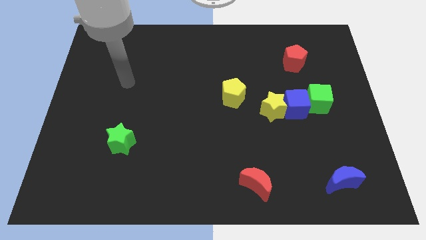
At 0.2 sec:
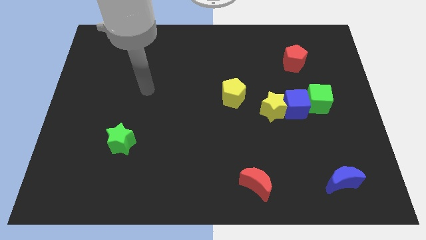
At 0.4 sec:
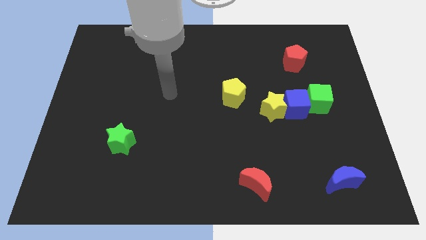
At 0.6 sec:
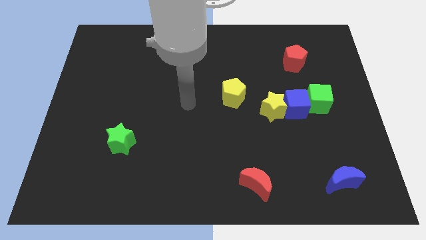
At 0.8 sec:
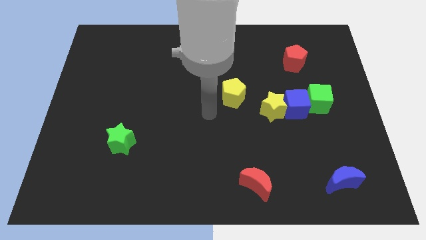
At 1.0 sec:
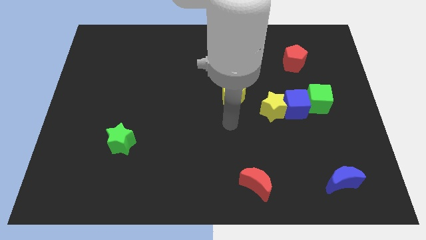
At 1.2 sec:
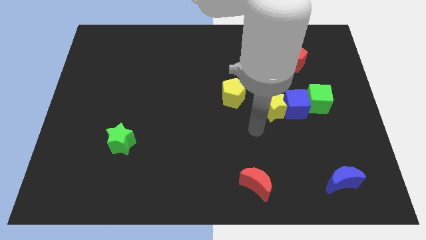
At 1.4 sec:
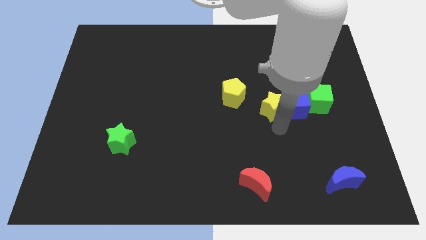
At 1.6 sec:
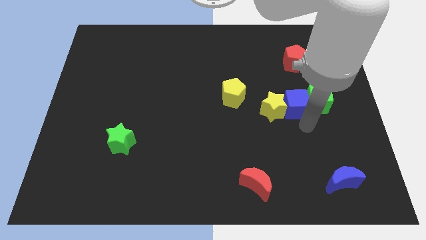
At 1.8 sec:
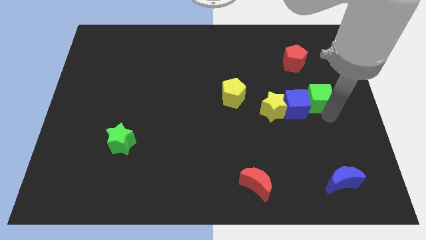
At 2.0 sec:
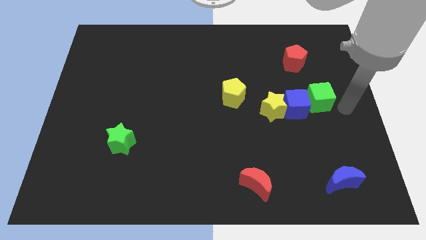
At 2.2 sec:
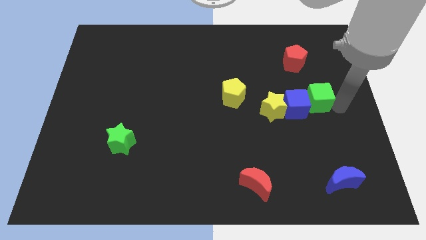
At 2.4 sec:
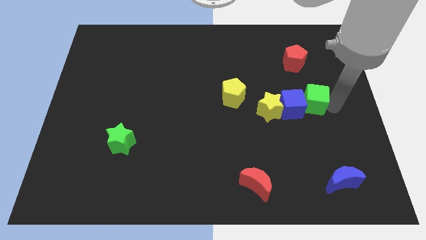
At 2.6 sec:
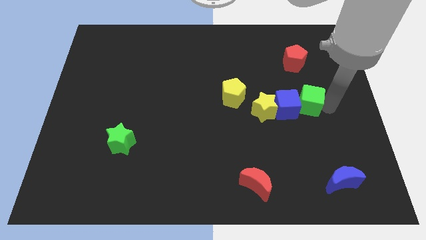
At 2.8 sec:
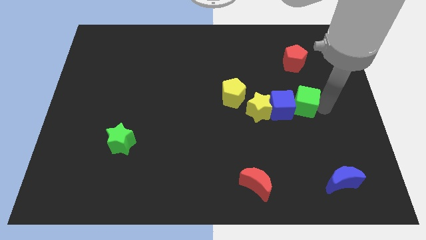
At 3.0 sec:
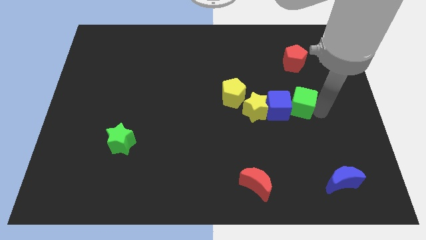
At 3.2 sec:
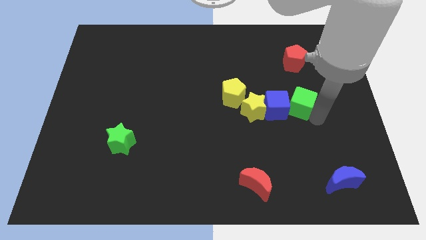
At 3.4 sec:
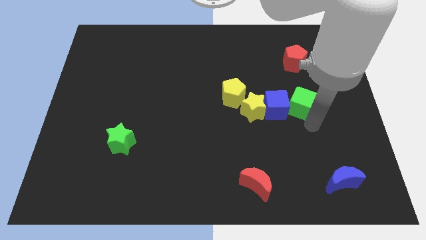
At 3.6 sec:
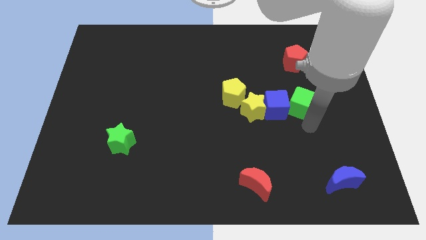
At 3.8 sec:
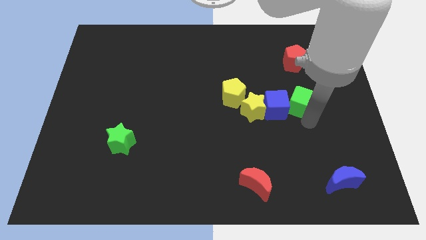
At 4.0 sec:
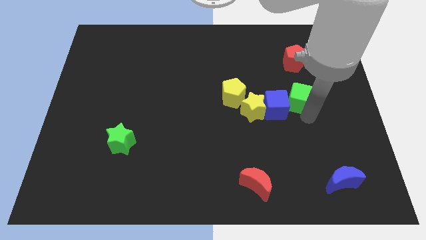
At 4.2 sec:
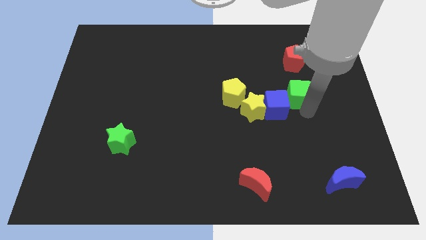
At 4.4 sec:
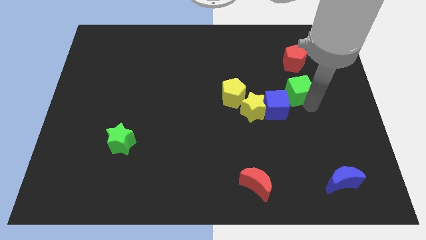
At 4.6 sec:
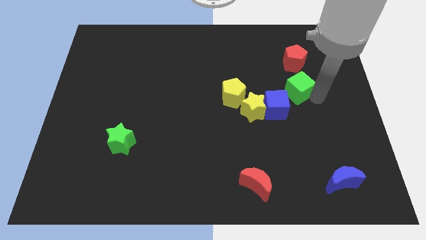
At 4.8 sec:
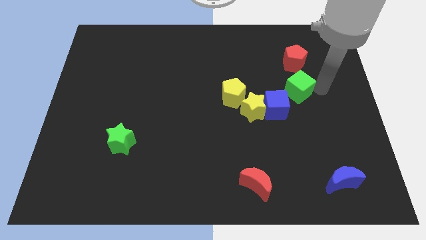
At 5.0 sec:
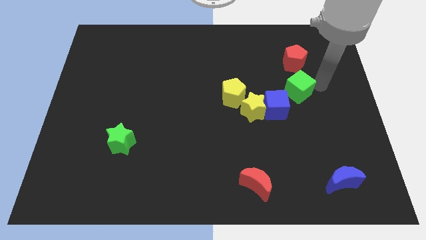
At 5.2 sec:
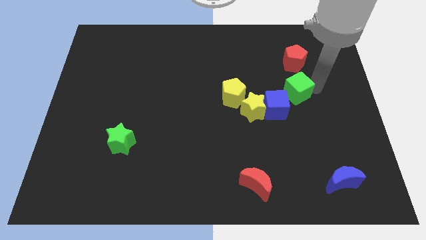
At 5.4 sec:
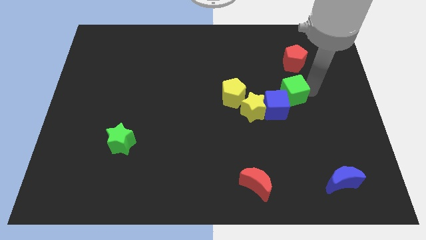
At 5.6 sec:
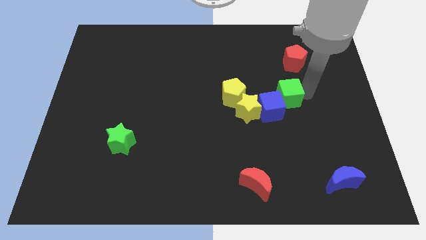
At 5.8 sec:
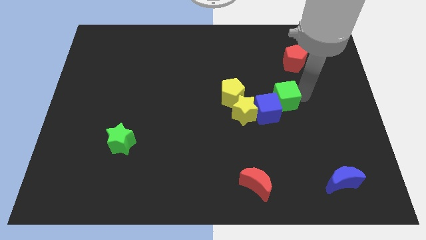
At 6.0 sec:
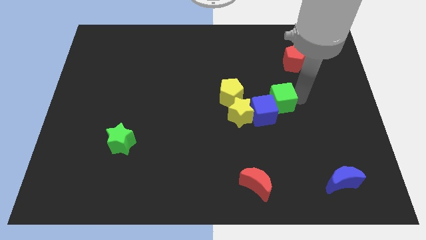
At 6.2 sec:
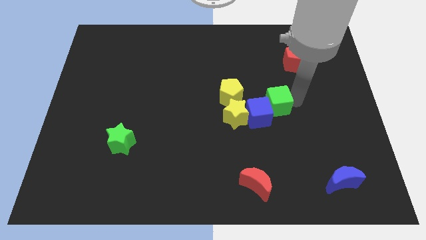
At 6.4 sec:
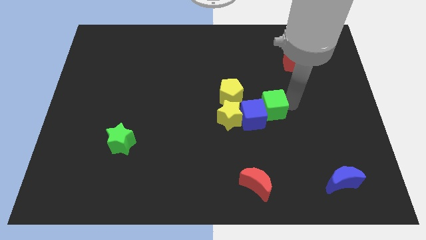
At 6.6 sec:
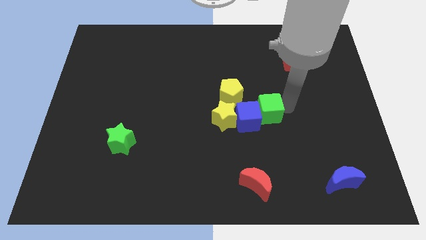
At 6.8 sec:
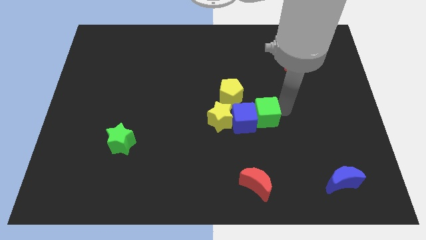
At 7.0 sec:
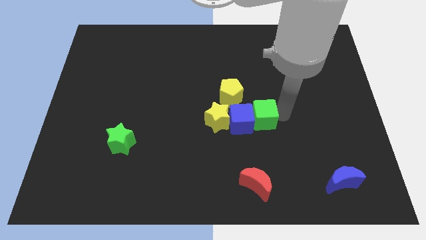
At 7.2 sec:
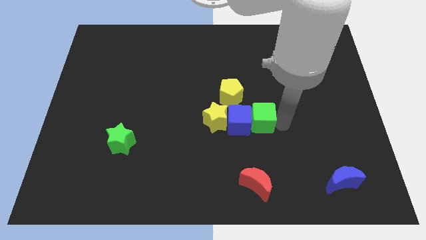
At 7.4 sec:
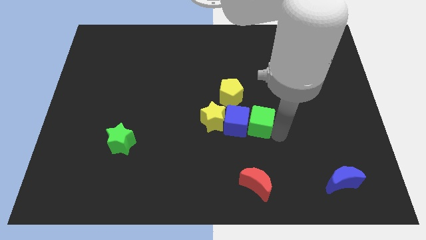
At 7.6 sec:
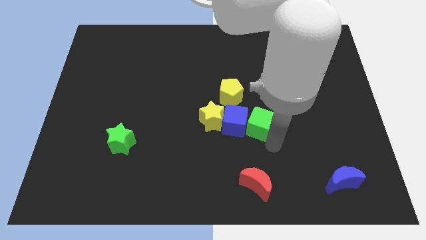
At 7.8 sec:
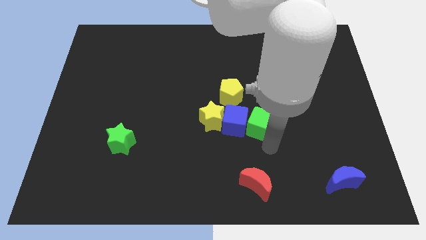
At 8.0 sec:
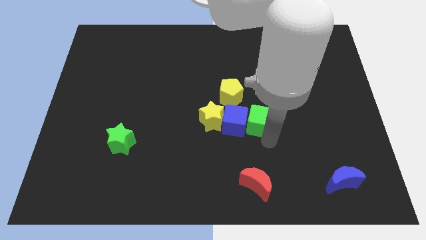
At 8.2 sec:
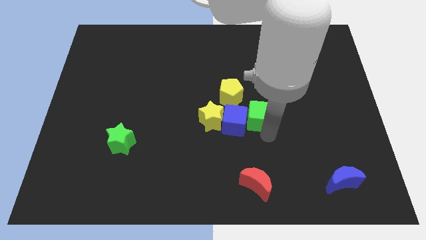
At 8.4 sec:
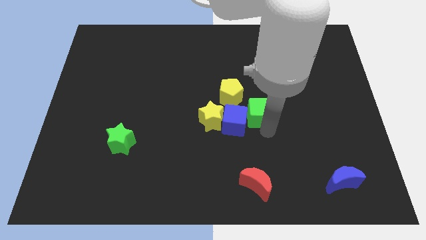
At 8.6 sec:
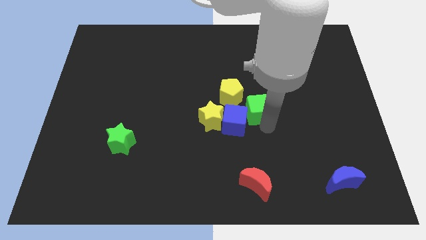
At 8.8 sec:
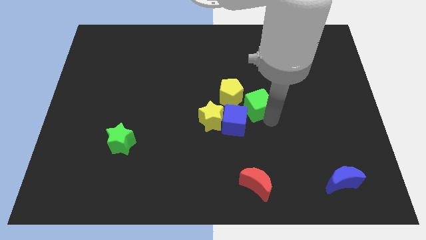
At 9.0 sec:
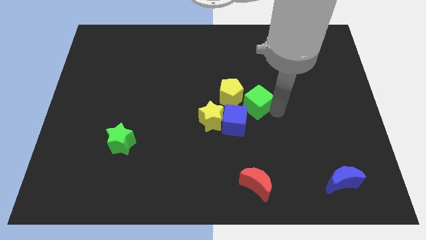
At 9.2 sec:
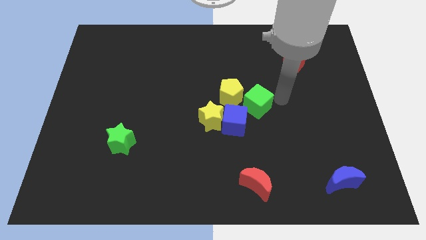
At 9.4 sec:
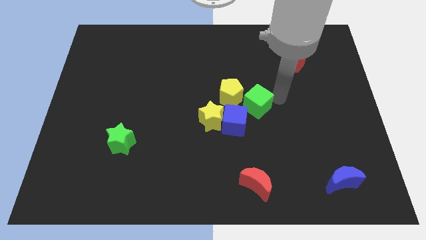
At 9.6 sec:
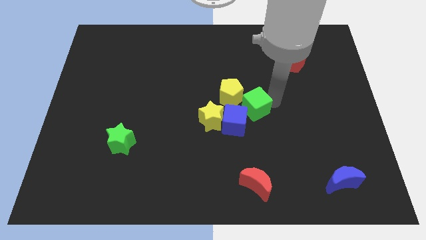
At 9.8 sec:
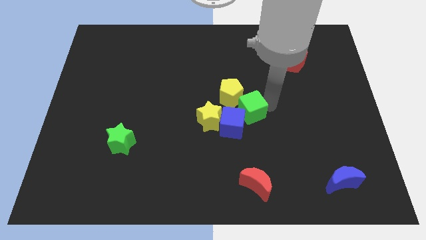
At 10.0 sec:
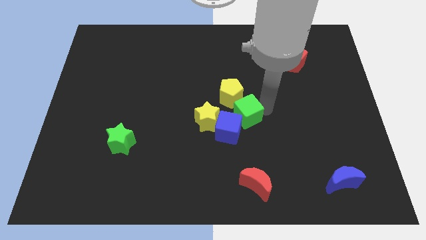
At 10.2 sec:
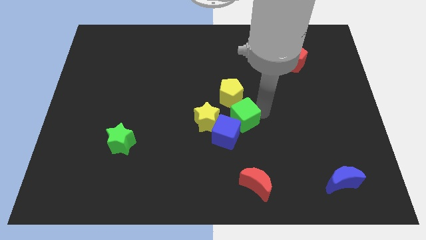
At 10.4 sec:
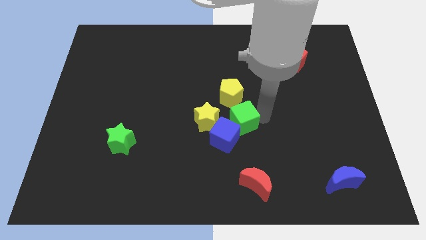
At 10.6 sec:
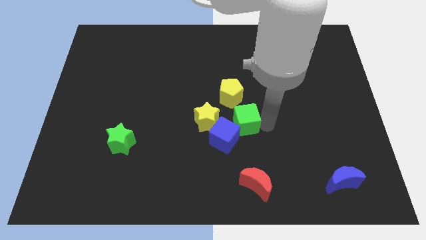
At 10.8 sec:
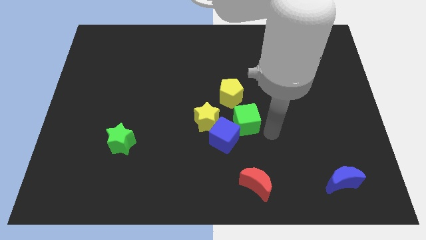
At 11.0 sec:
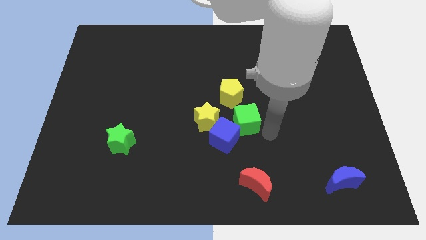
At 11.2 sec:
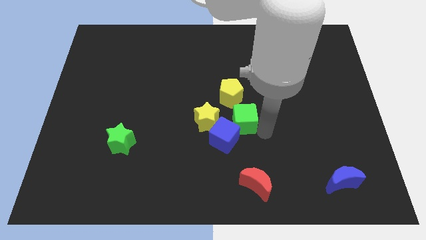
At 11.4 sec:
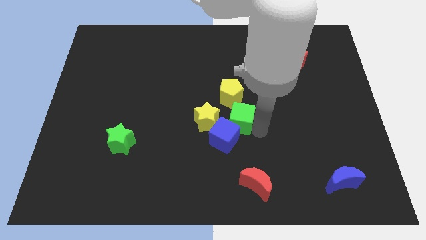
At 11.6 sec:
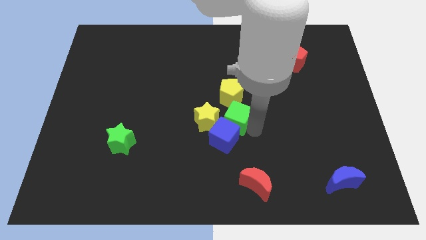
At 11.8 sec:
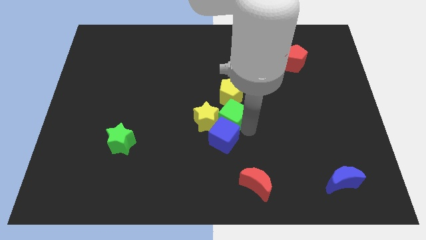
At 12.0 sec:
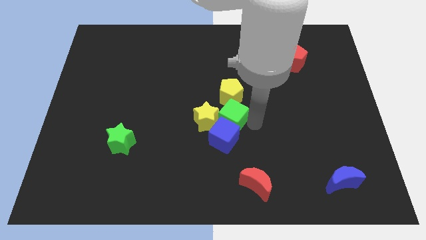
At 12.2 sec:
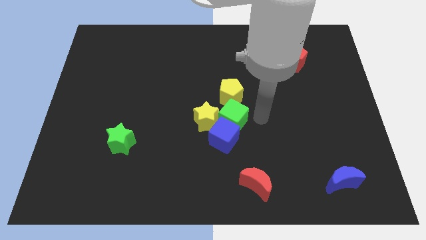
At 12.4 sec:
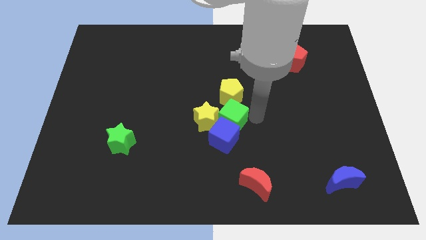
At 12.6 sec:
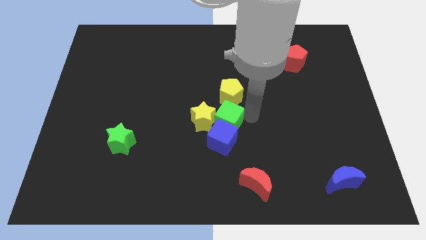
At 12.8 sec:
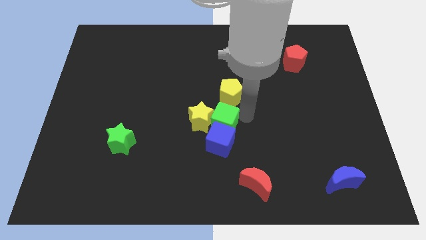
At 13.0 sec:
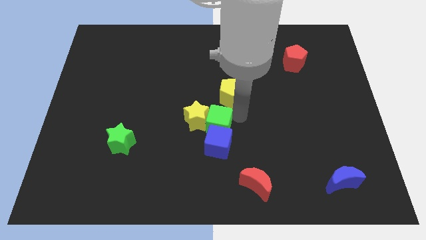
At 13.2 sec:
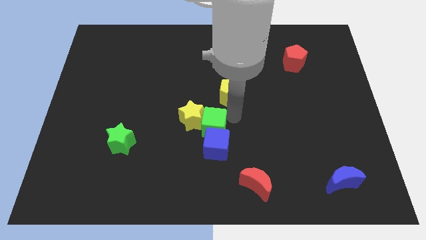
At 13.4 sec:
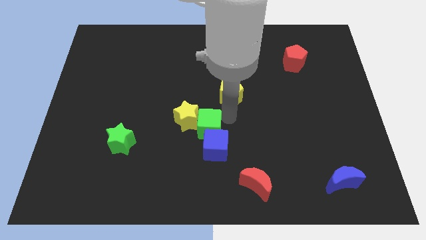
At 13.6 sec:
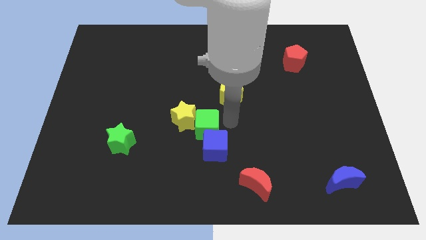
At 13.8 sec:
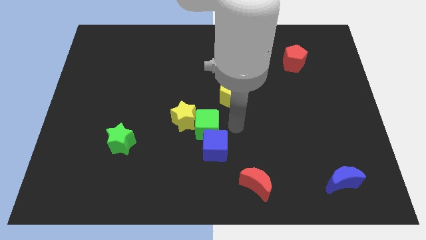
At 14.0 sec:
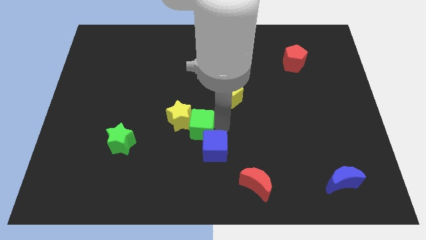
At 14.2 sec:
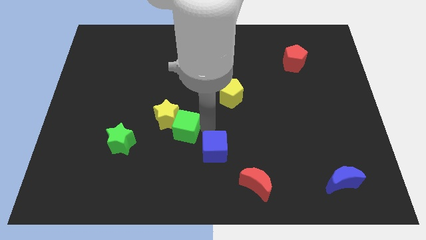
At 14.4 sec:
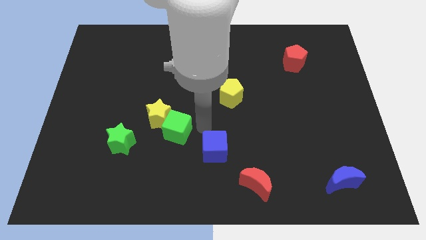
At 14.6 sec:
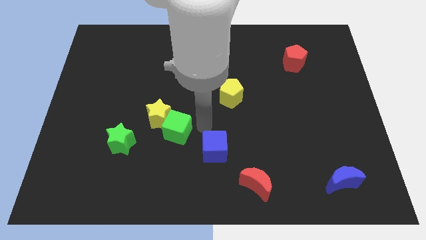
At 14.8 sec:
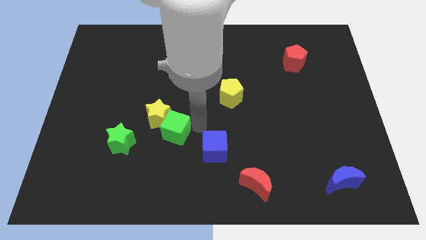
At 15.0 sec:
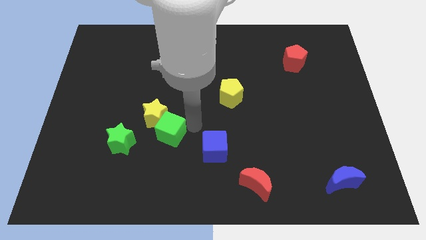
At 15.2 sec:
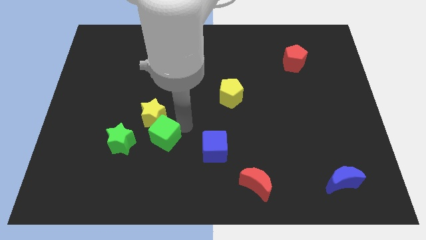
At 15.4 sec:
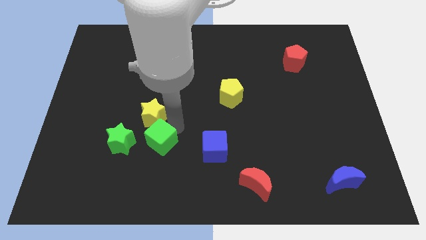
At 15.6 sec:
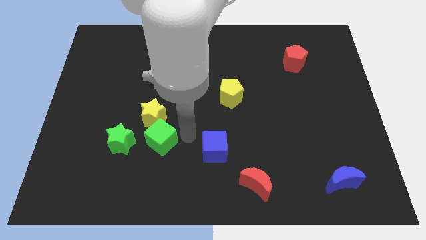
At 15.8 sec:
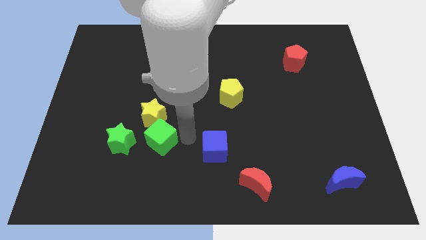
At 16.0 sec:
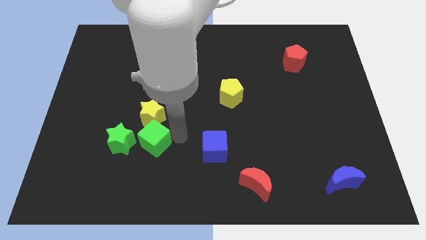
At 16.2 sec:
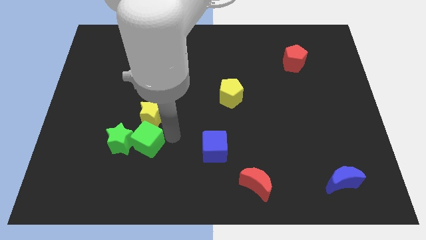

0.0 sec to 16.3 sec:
put the green cube next to the green star
